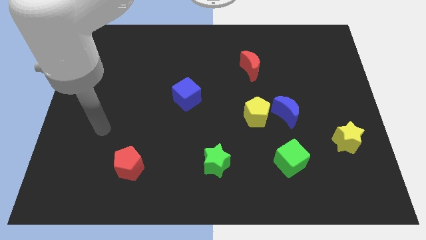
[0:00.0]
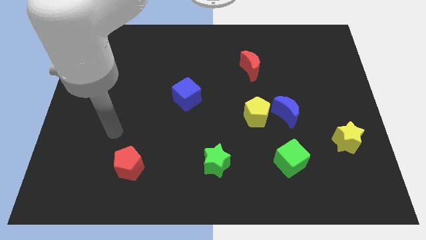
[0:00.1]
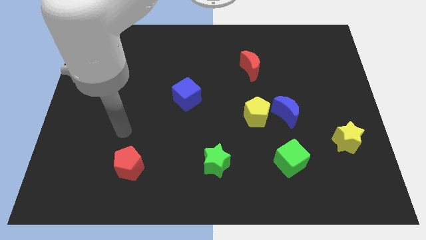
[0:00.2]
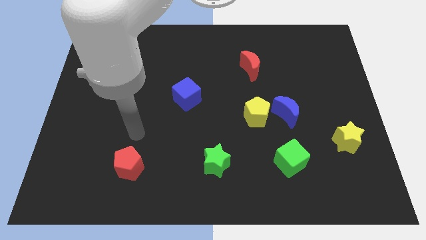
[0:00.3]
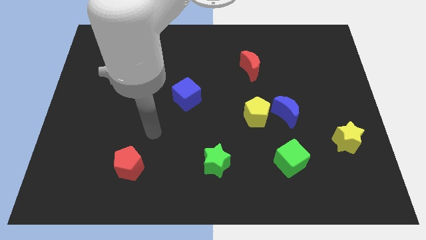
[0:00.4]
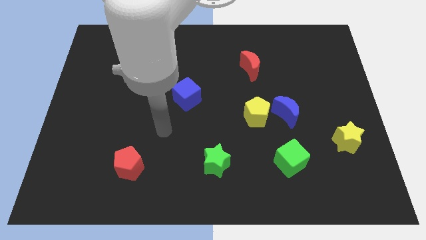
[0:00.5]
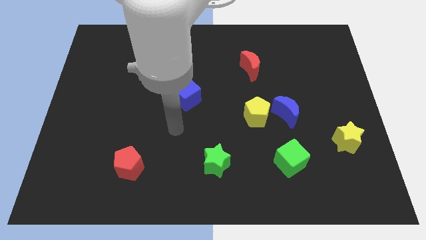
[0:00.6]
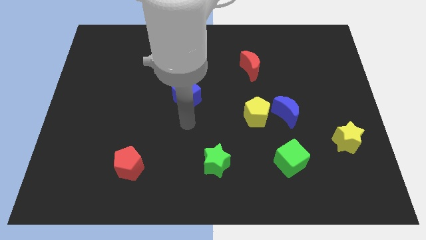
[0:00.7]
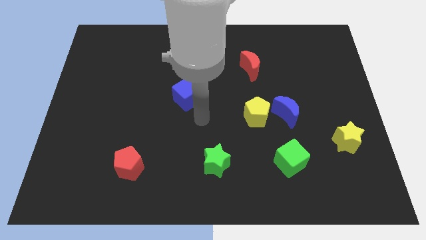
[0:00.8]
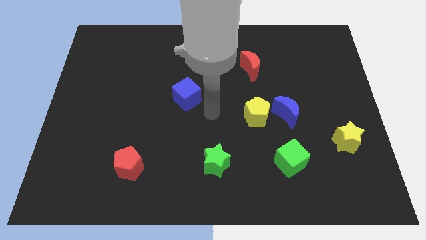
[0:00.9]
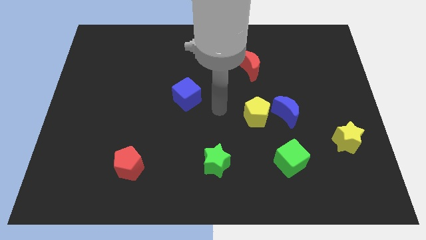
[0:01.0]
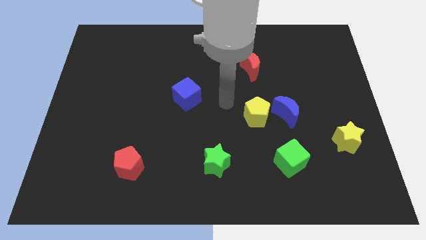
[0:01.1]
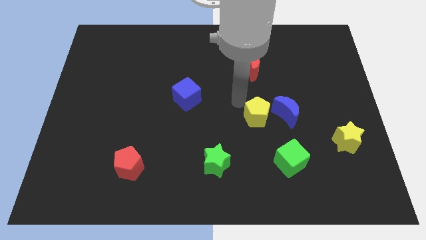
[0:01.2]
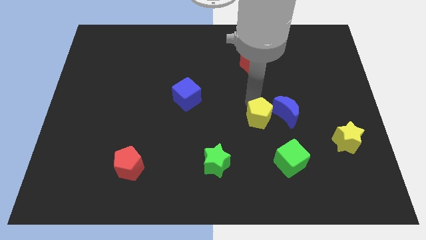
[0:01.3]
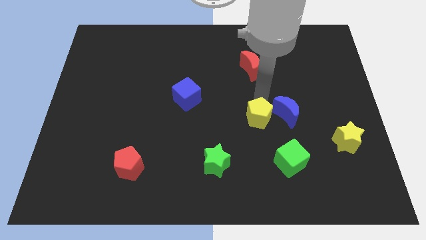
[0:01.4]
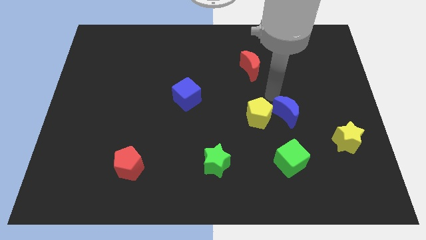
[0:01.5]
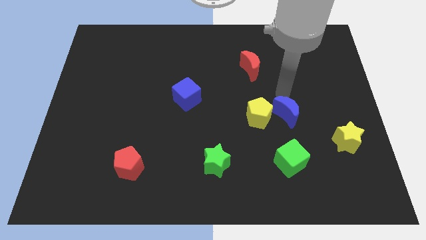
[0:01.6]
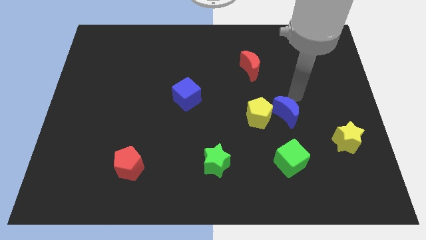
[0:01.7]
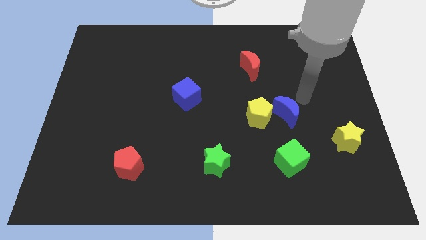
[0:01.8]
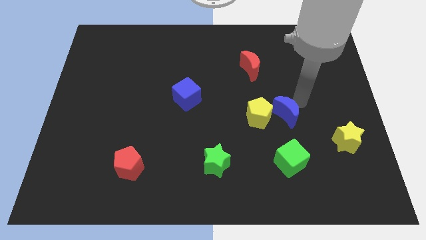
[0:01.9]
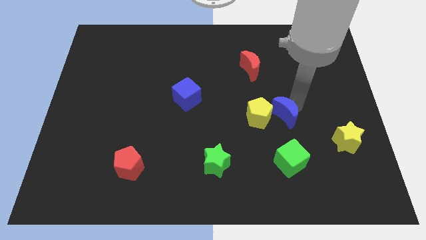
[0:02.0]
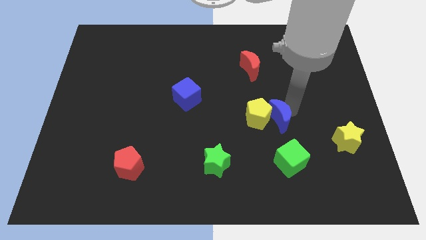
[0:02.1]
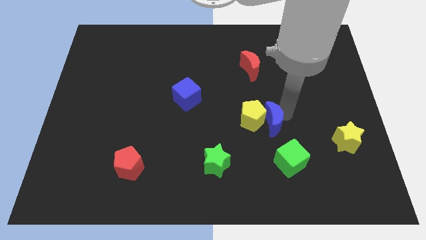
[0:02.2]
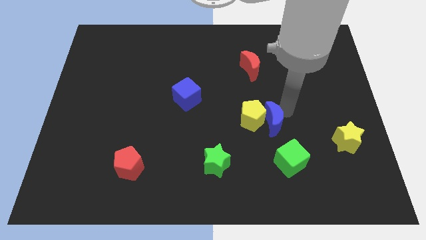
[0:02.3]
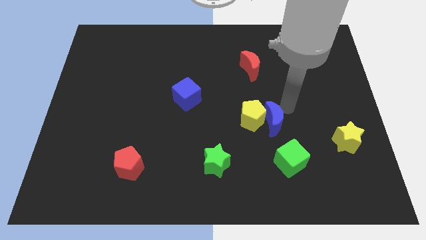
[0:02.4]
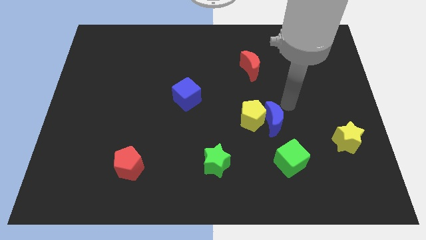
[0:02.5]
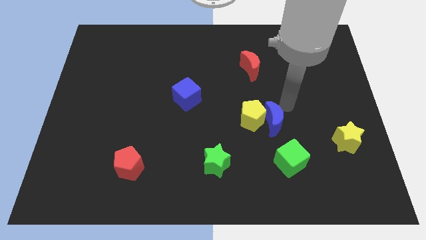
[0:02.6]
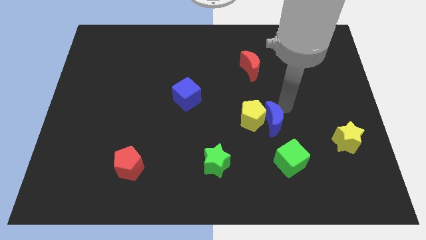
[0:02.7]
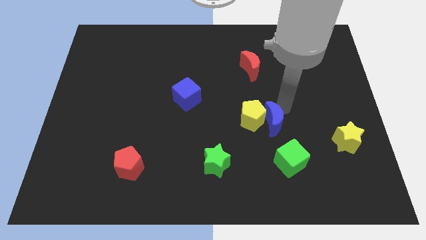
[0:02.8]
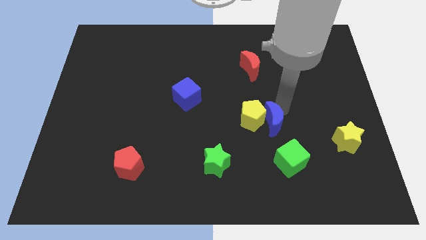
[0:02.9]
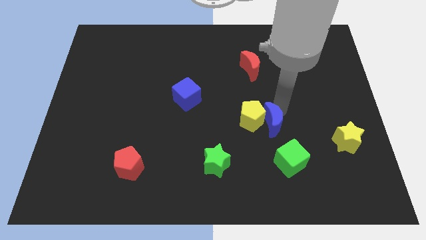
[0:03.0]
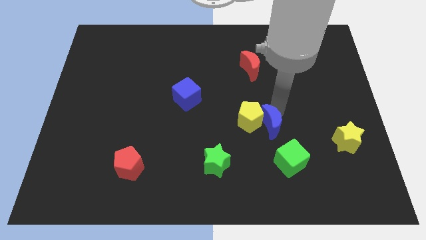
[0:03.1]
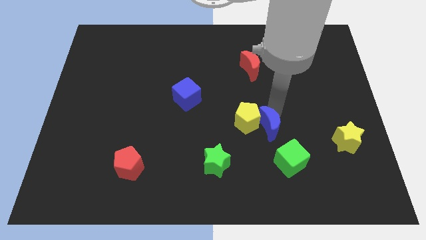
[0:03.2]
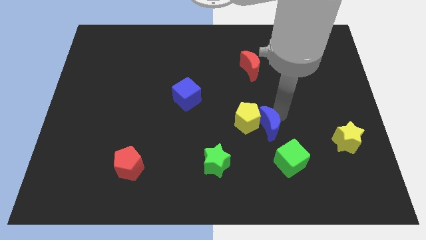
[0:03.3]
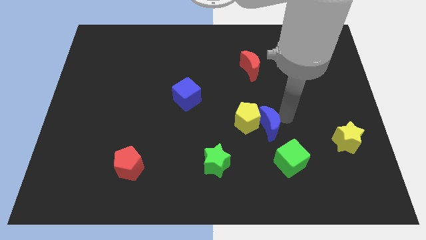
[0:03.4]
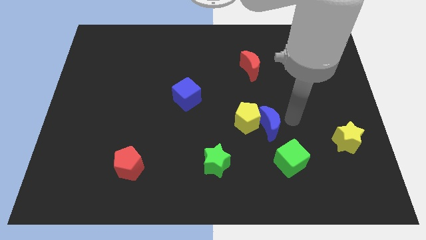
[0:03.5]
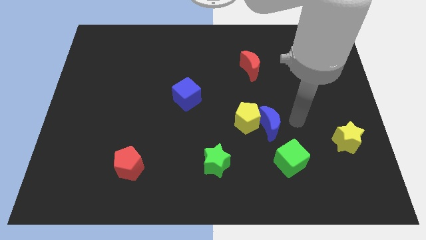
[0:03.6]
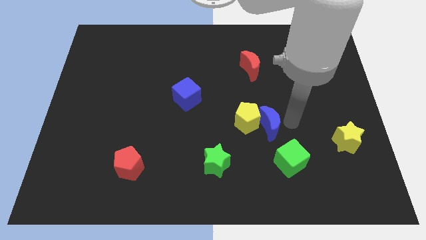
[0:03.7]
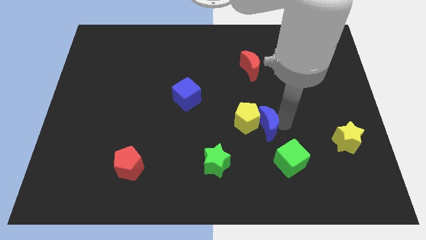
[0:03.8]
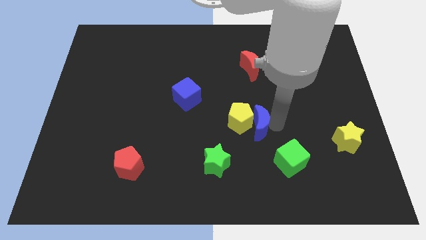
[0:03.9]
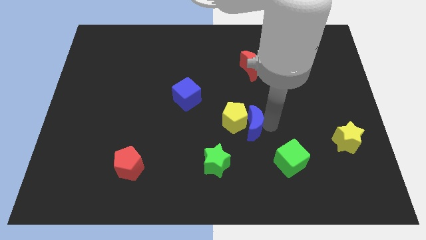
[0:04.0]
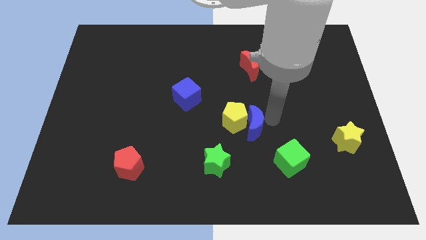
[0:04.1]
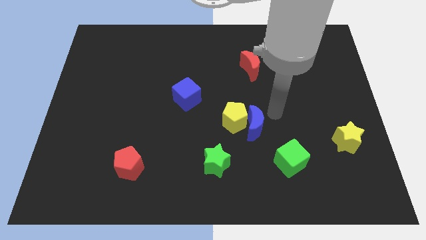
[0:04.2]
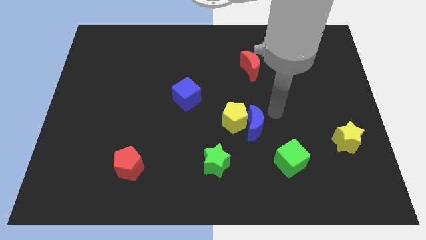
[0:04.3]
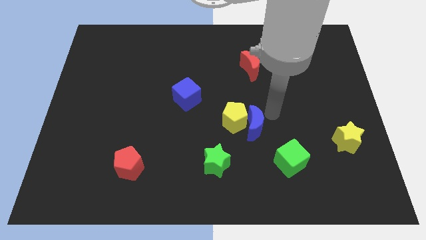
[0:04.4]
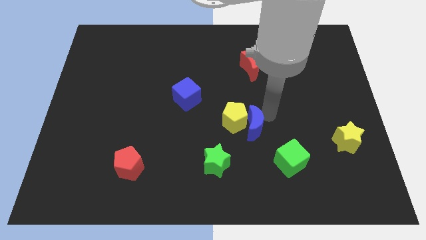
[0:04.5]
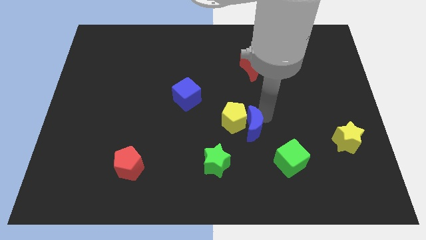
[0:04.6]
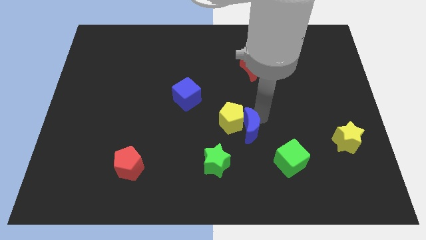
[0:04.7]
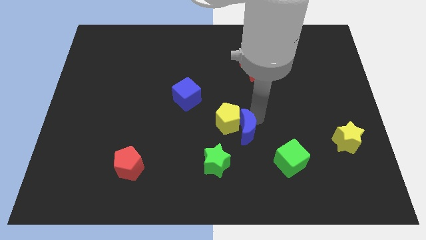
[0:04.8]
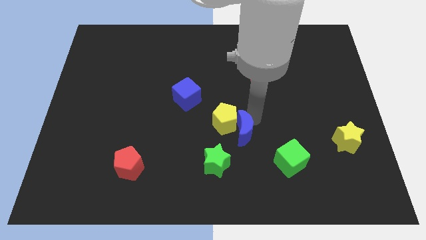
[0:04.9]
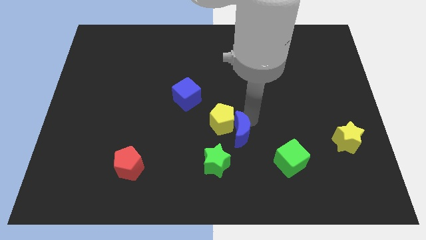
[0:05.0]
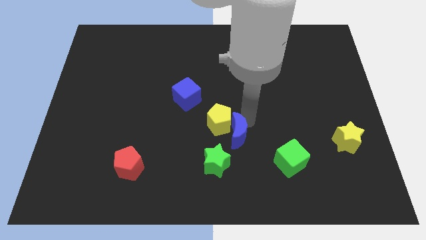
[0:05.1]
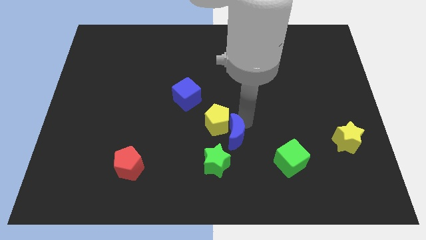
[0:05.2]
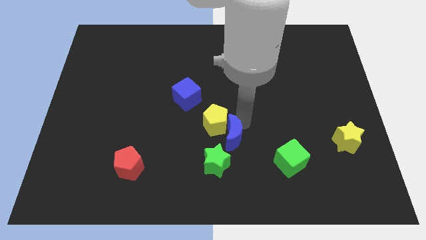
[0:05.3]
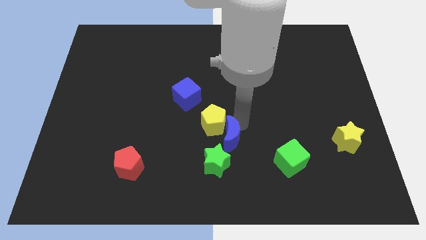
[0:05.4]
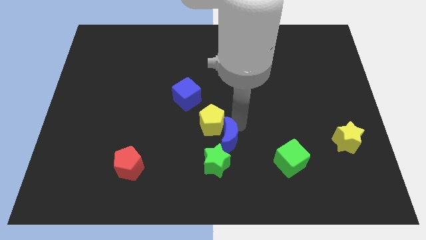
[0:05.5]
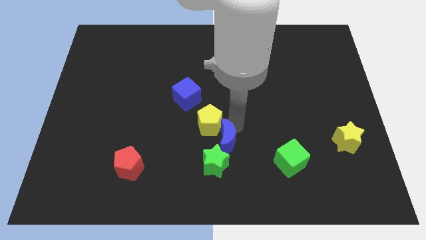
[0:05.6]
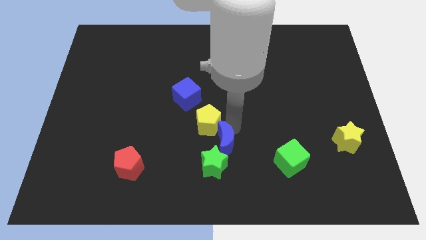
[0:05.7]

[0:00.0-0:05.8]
slide the blue moon next to the green star

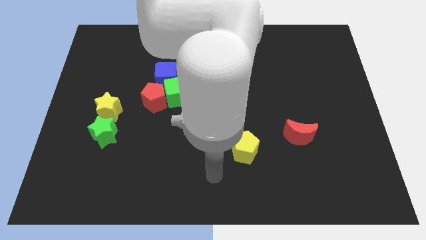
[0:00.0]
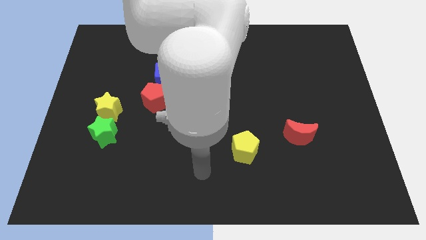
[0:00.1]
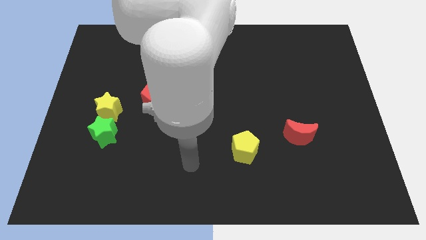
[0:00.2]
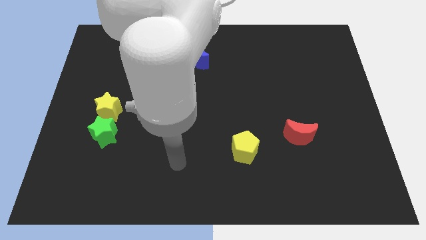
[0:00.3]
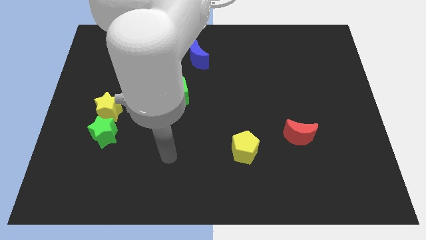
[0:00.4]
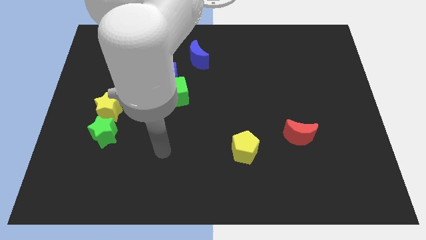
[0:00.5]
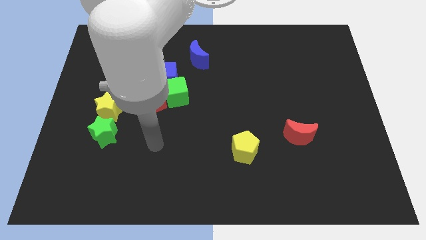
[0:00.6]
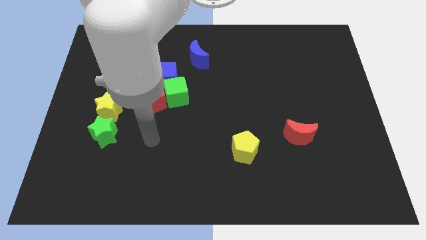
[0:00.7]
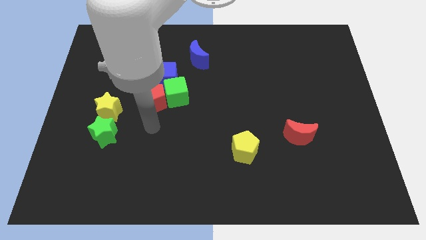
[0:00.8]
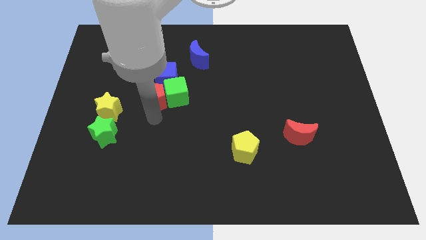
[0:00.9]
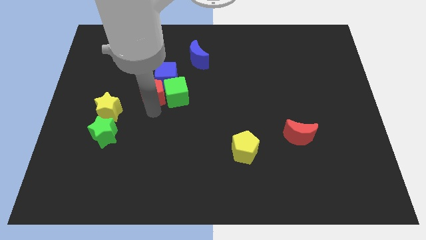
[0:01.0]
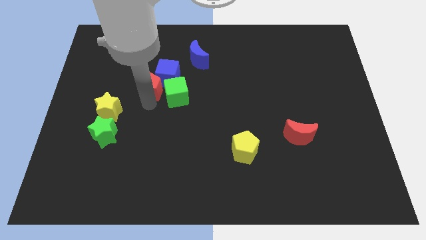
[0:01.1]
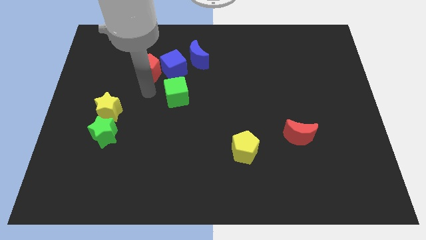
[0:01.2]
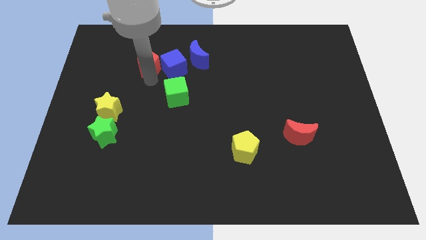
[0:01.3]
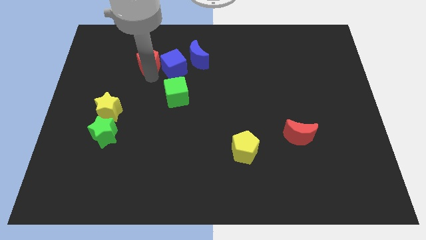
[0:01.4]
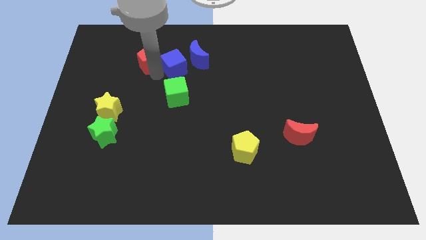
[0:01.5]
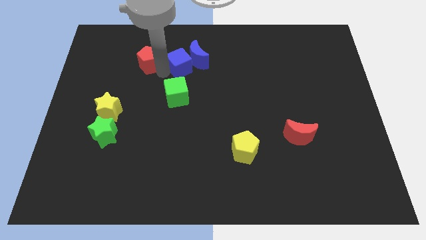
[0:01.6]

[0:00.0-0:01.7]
slide the blue cube next to the blue moon
